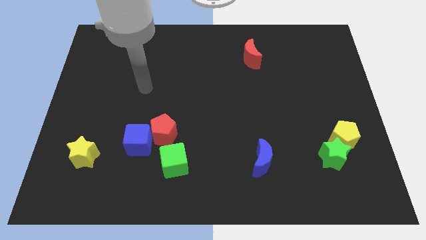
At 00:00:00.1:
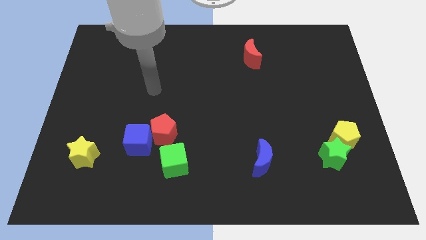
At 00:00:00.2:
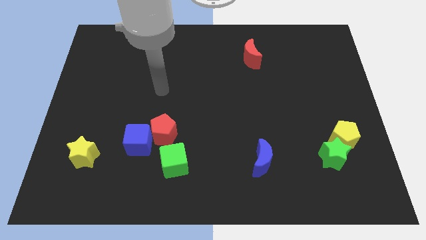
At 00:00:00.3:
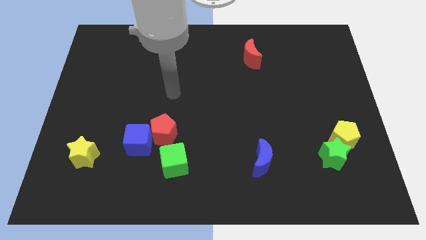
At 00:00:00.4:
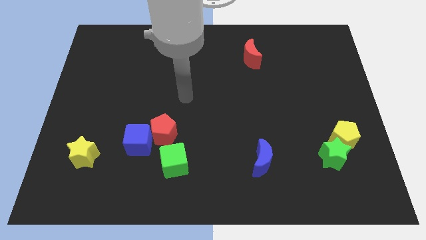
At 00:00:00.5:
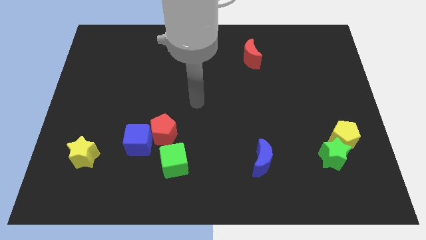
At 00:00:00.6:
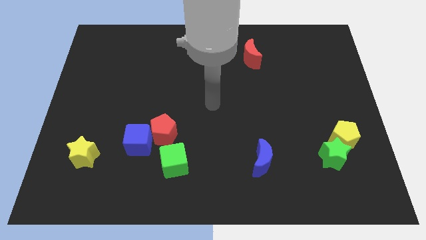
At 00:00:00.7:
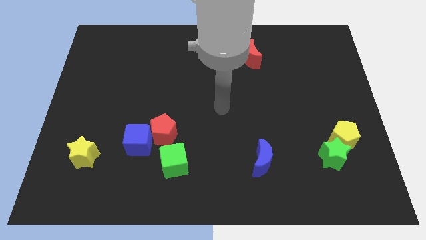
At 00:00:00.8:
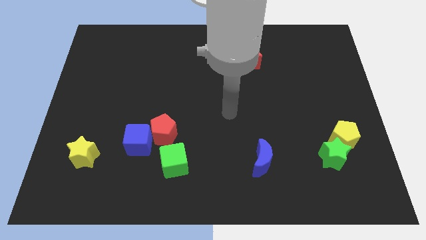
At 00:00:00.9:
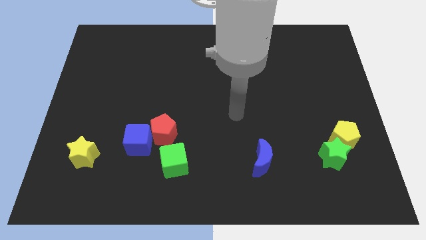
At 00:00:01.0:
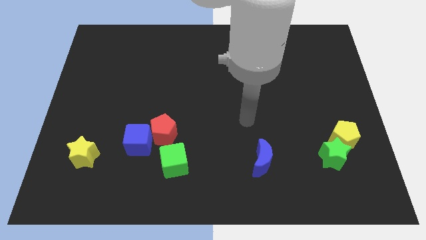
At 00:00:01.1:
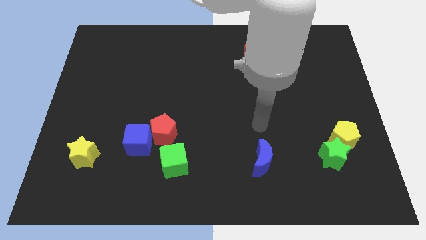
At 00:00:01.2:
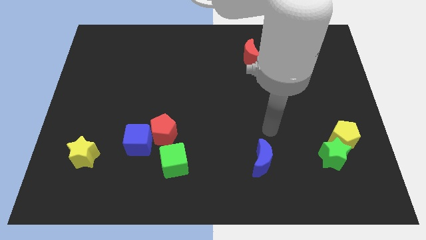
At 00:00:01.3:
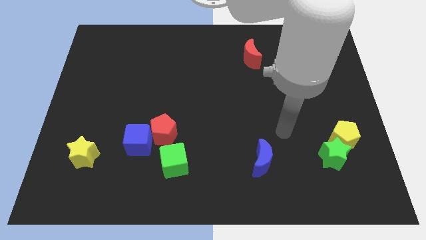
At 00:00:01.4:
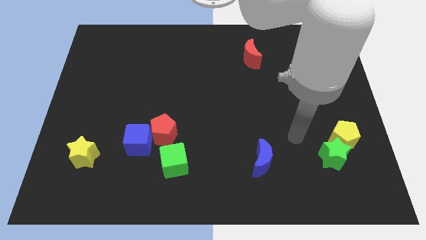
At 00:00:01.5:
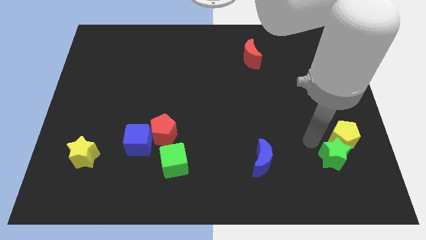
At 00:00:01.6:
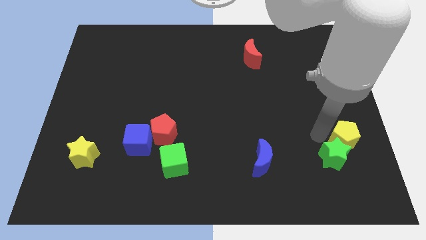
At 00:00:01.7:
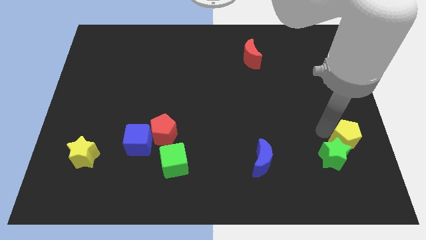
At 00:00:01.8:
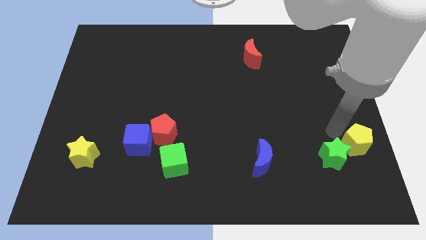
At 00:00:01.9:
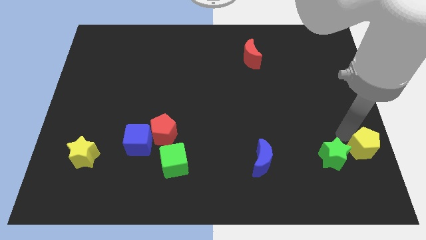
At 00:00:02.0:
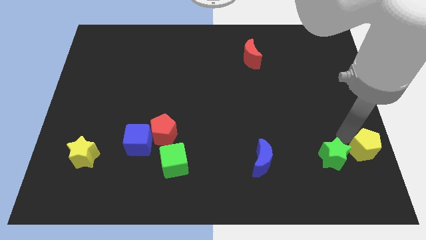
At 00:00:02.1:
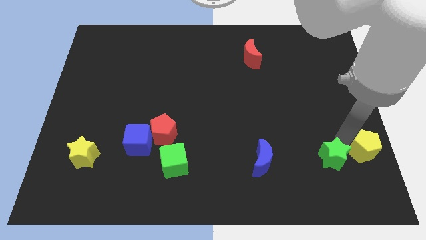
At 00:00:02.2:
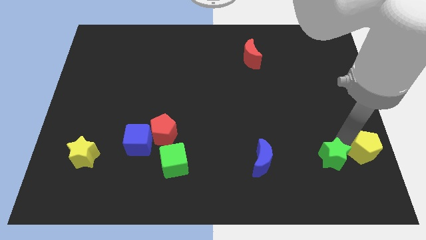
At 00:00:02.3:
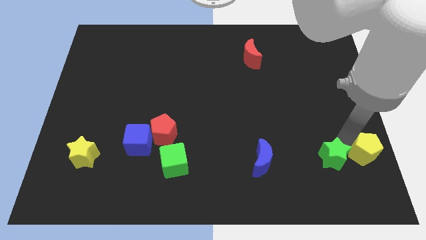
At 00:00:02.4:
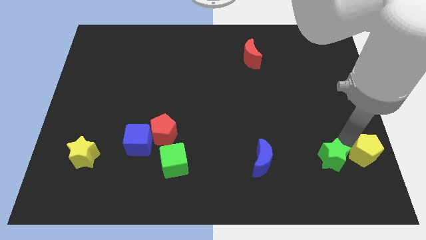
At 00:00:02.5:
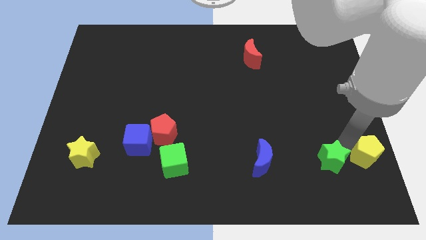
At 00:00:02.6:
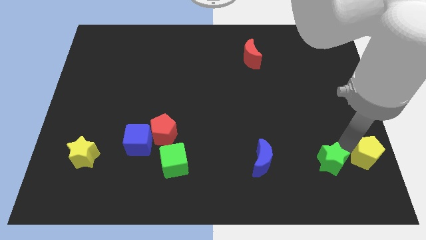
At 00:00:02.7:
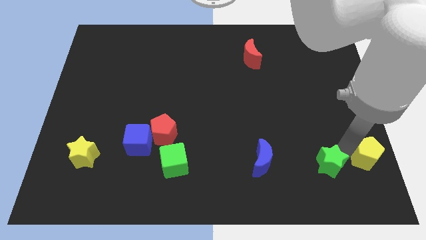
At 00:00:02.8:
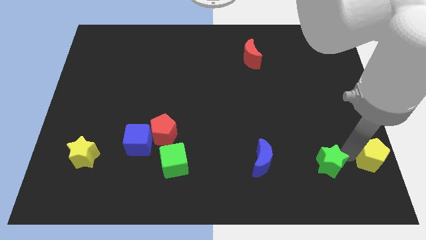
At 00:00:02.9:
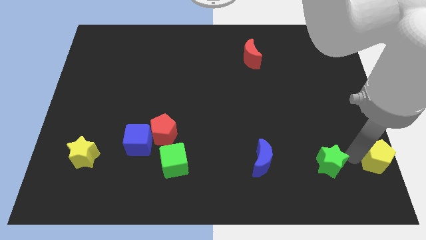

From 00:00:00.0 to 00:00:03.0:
move the green star away from the yellow pentagon

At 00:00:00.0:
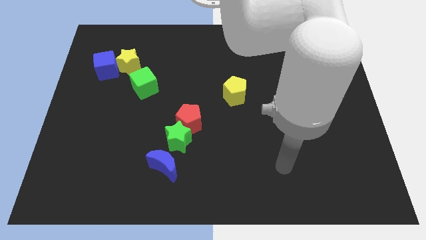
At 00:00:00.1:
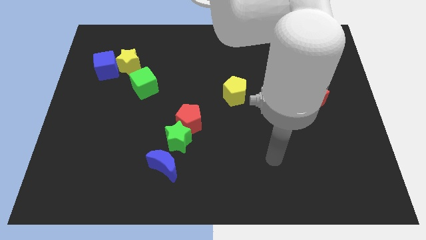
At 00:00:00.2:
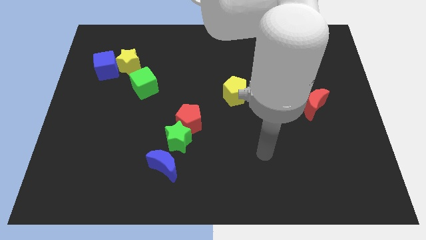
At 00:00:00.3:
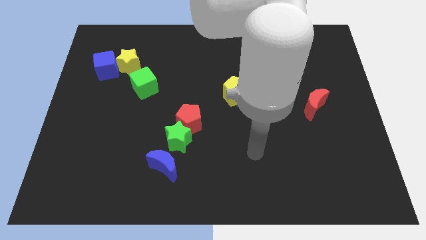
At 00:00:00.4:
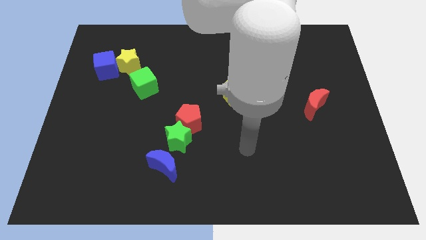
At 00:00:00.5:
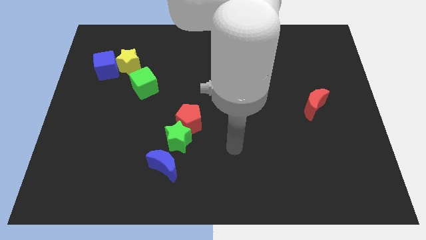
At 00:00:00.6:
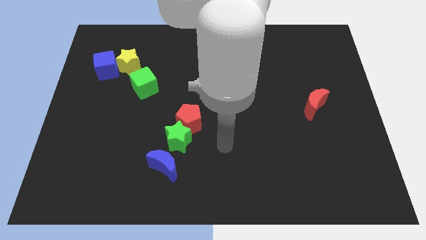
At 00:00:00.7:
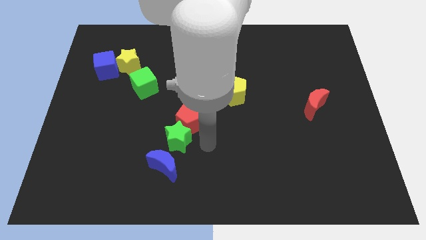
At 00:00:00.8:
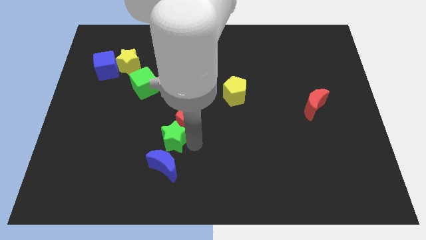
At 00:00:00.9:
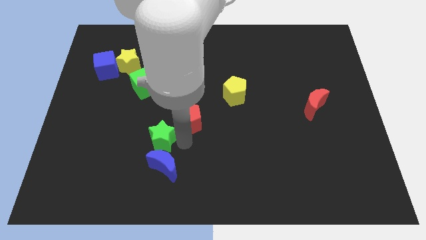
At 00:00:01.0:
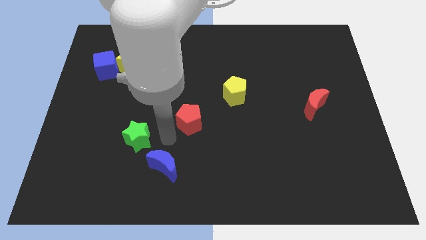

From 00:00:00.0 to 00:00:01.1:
separate the red pentagon from the green star

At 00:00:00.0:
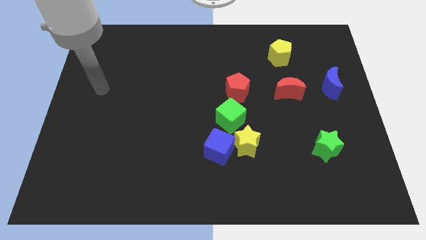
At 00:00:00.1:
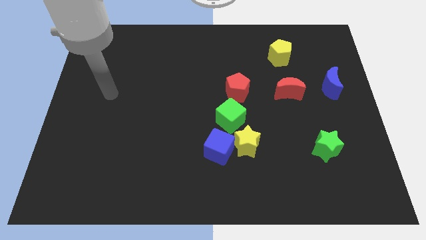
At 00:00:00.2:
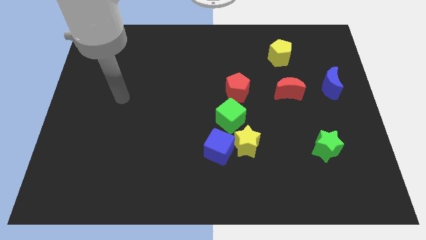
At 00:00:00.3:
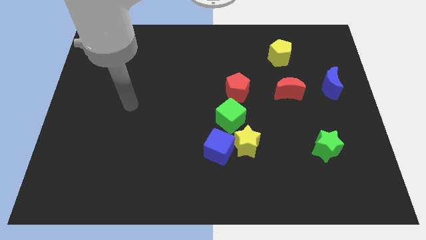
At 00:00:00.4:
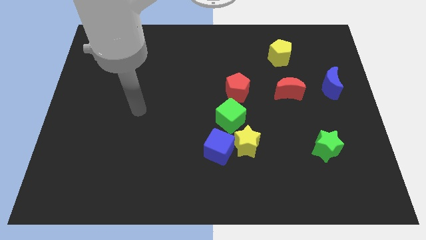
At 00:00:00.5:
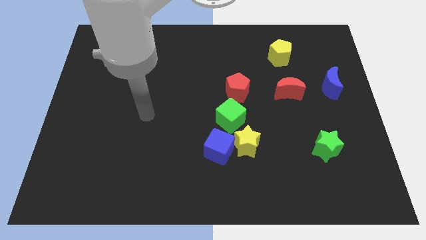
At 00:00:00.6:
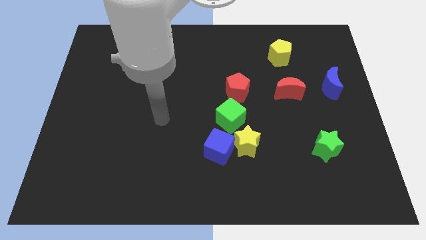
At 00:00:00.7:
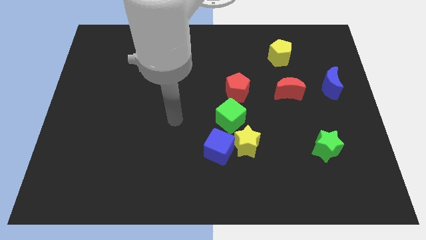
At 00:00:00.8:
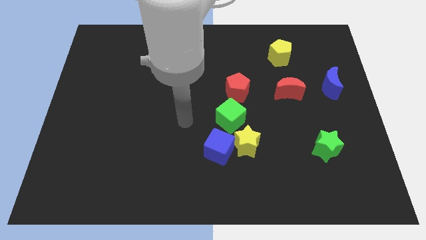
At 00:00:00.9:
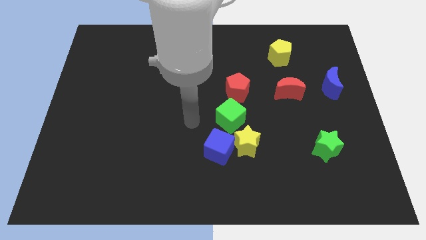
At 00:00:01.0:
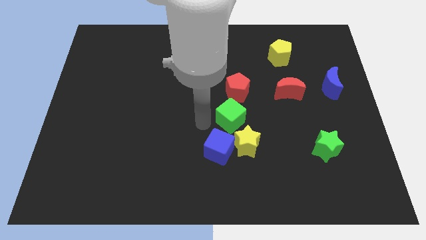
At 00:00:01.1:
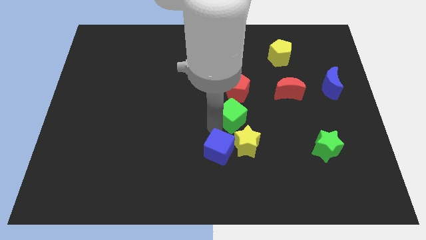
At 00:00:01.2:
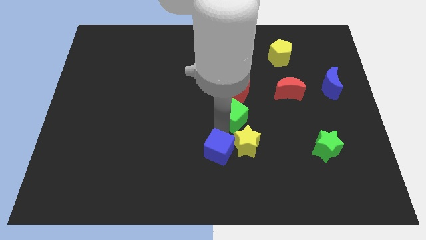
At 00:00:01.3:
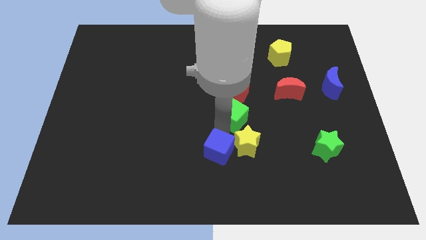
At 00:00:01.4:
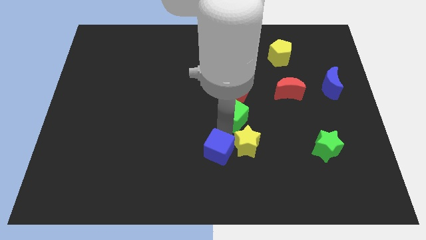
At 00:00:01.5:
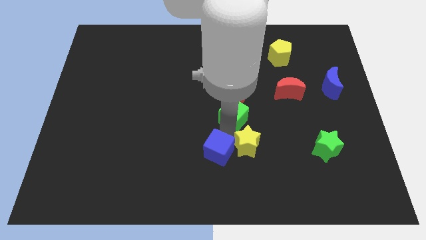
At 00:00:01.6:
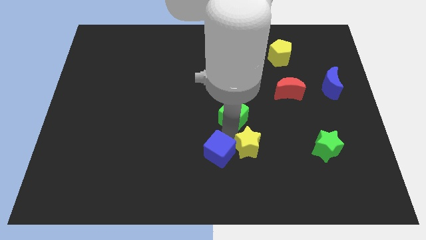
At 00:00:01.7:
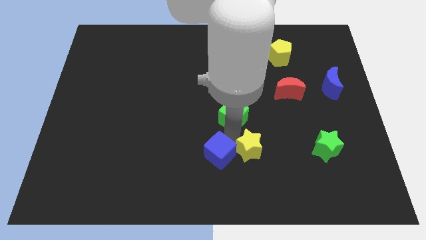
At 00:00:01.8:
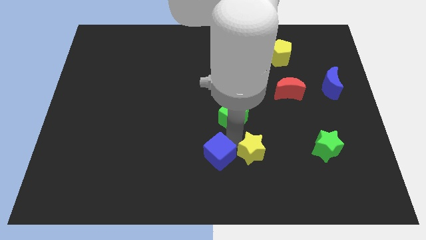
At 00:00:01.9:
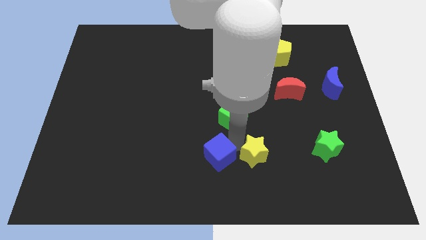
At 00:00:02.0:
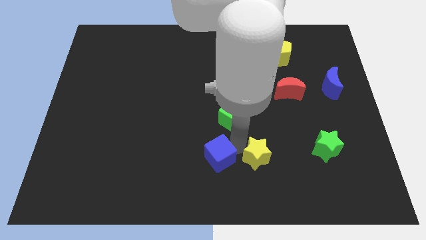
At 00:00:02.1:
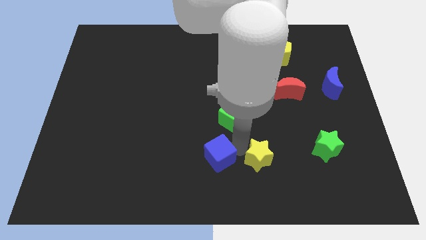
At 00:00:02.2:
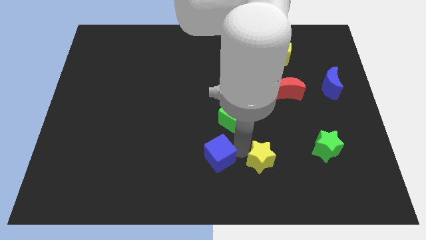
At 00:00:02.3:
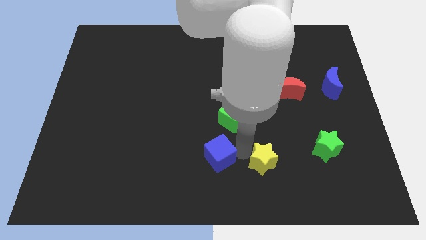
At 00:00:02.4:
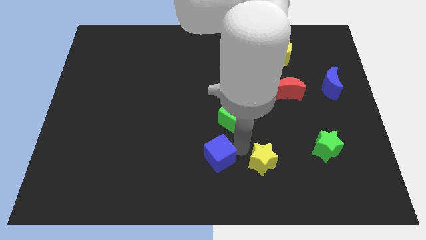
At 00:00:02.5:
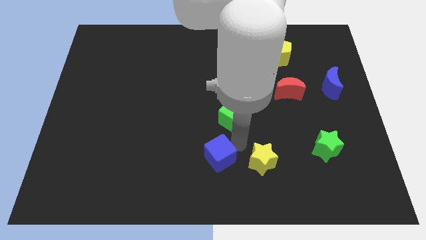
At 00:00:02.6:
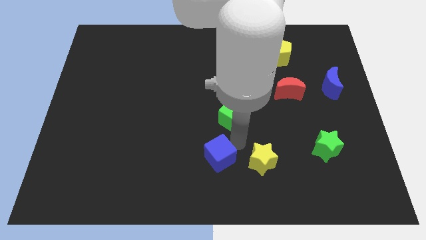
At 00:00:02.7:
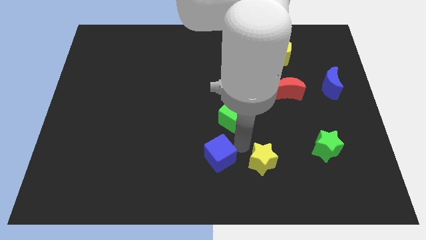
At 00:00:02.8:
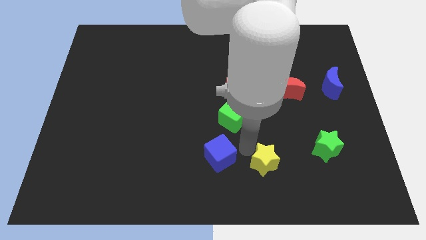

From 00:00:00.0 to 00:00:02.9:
separate the yellow star from the blue cube and green cube

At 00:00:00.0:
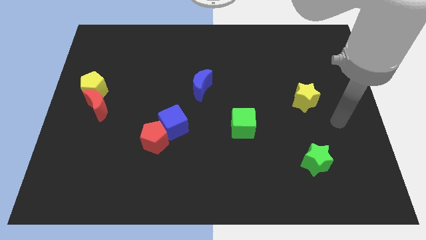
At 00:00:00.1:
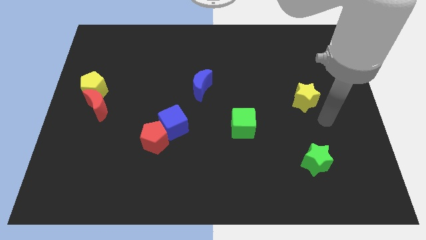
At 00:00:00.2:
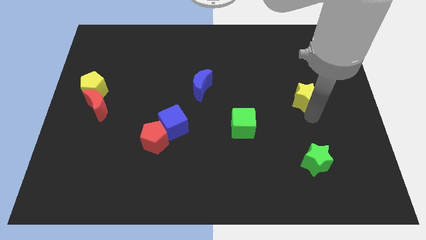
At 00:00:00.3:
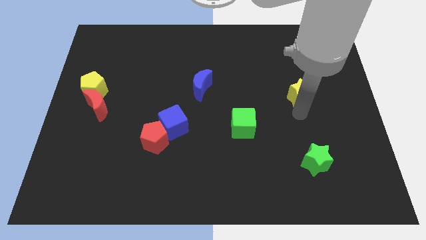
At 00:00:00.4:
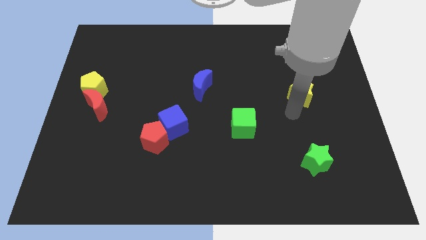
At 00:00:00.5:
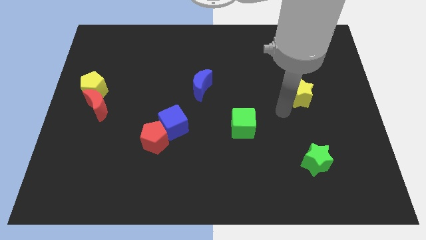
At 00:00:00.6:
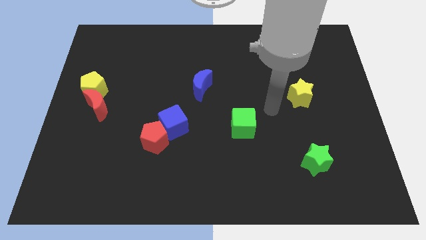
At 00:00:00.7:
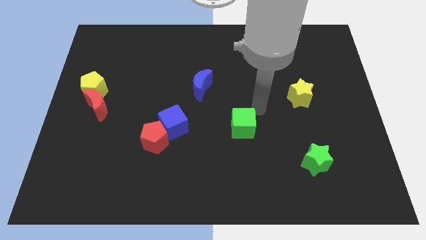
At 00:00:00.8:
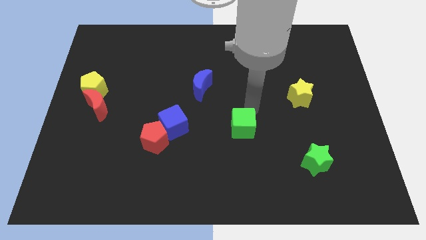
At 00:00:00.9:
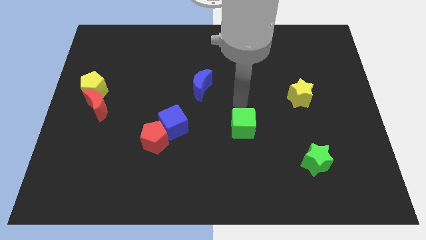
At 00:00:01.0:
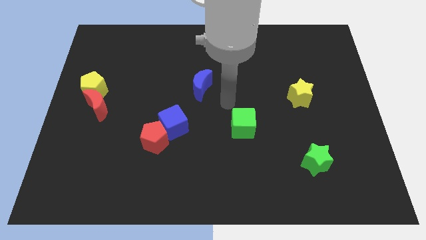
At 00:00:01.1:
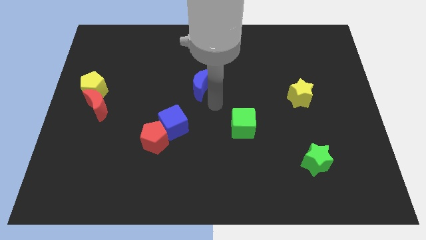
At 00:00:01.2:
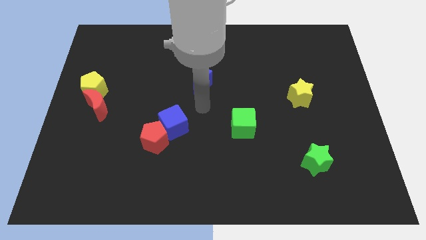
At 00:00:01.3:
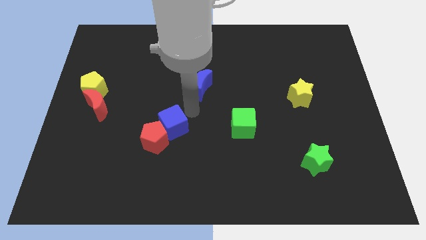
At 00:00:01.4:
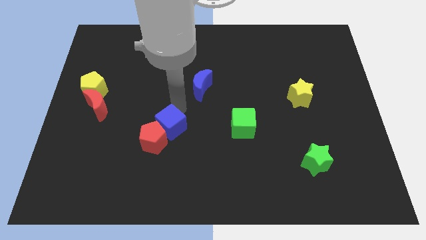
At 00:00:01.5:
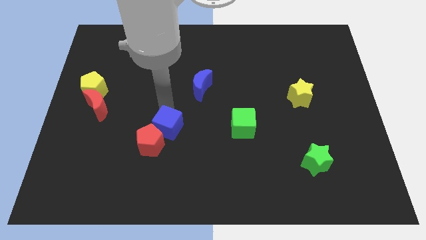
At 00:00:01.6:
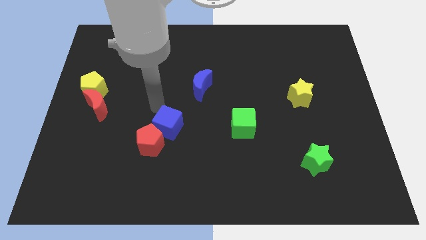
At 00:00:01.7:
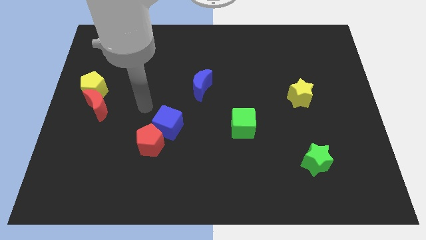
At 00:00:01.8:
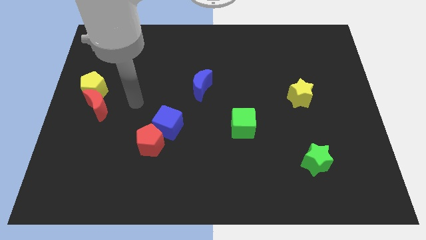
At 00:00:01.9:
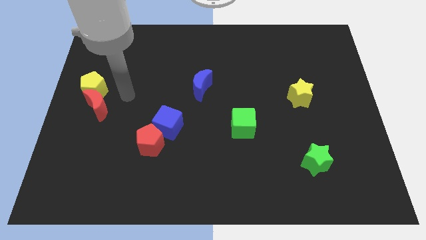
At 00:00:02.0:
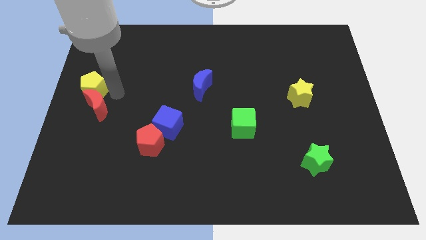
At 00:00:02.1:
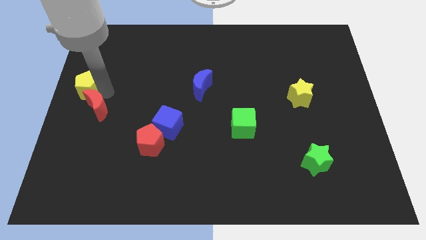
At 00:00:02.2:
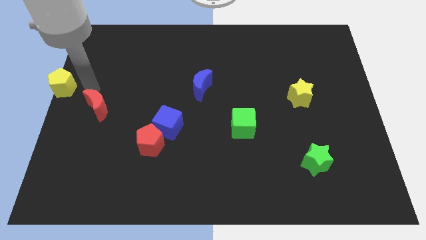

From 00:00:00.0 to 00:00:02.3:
separate the red moon from the yellow pentagon
